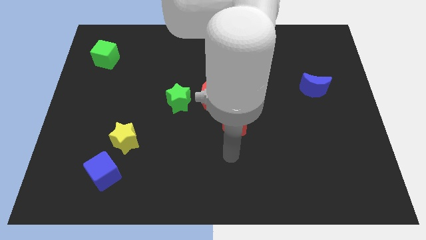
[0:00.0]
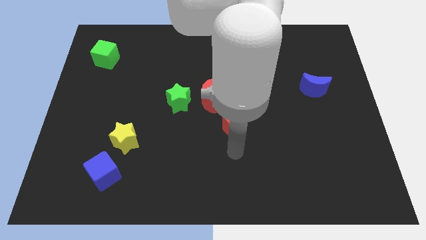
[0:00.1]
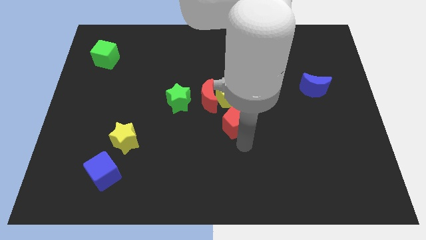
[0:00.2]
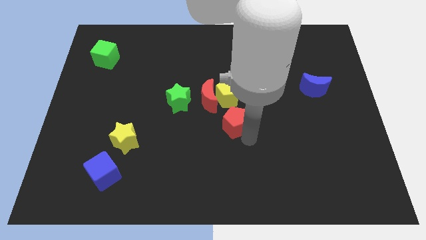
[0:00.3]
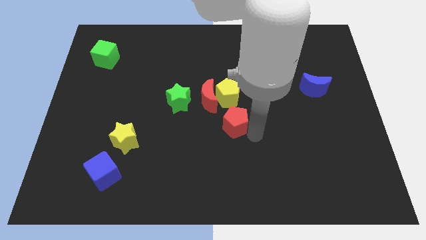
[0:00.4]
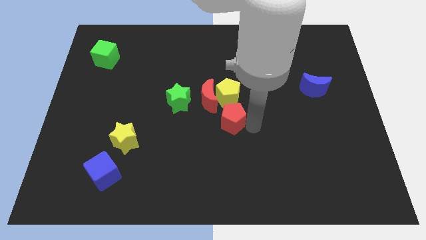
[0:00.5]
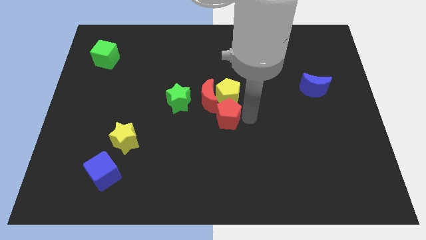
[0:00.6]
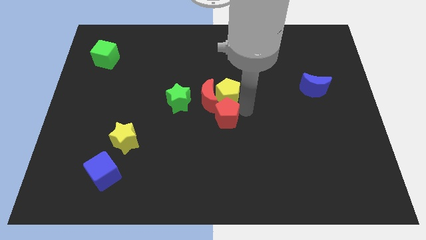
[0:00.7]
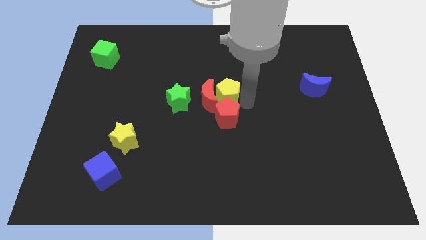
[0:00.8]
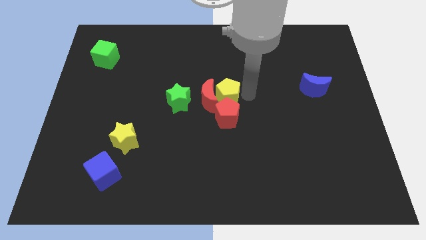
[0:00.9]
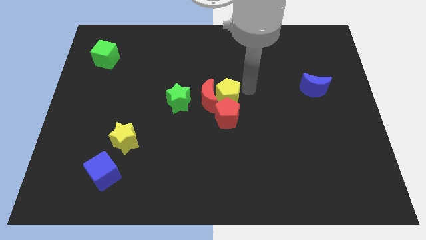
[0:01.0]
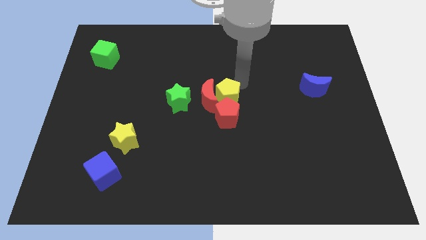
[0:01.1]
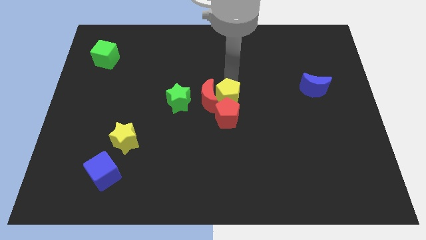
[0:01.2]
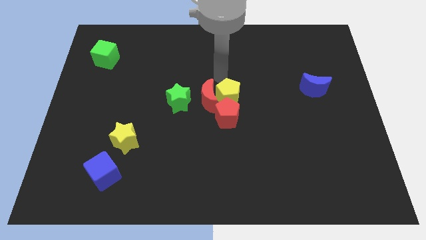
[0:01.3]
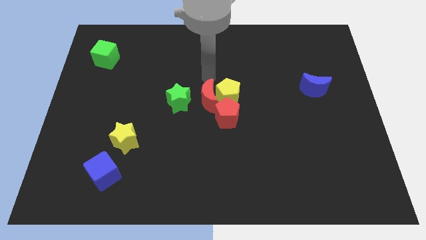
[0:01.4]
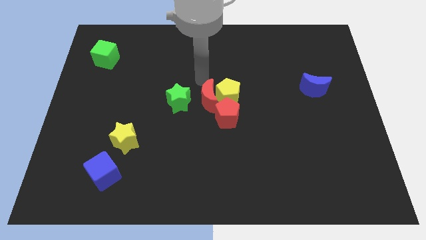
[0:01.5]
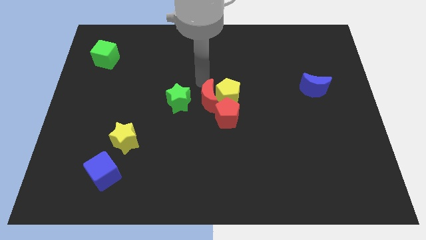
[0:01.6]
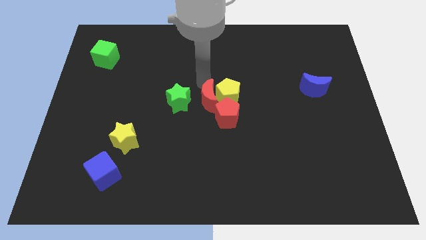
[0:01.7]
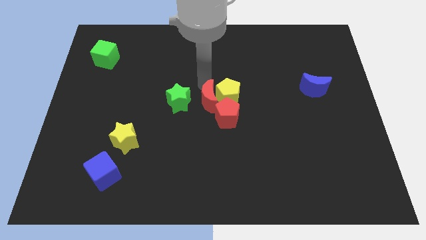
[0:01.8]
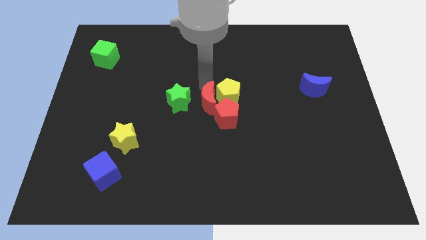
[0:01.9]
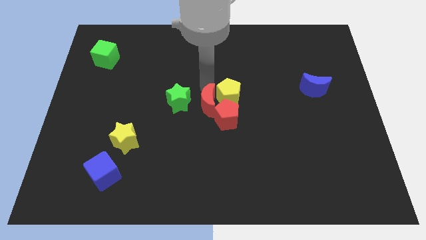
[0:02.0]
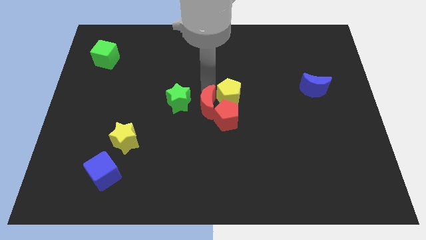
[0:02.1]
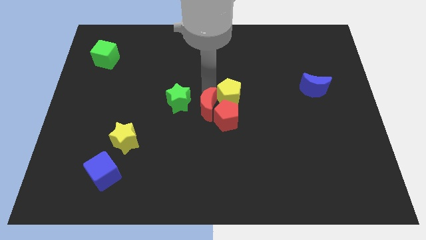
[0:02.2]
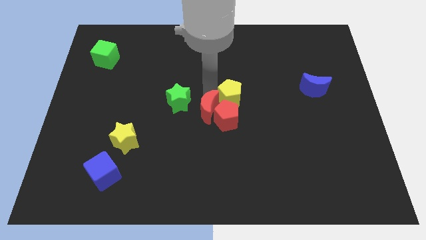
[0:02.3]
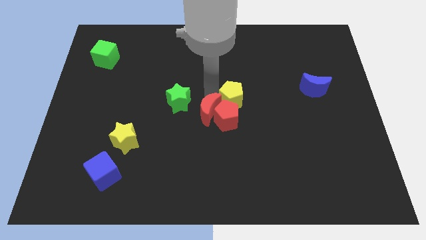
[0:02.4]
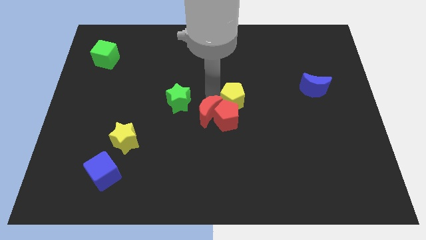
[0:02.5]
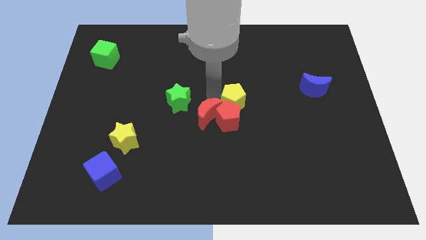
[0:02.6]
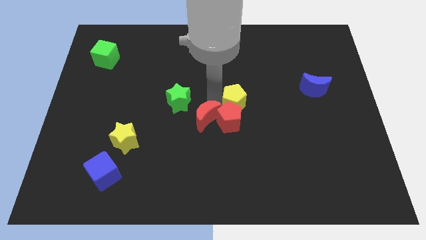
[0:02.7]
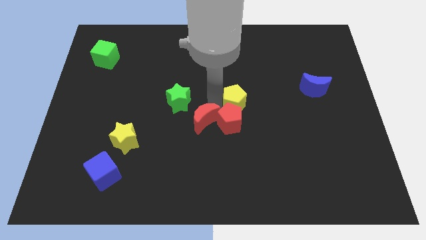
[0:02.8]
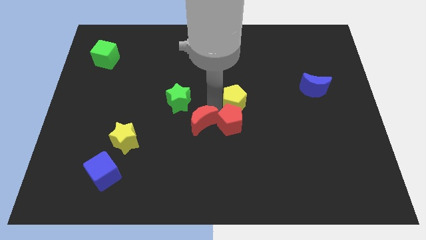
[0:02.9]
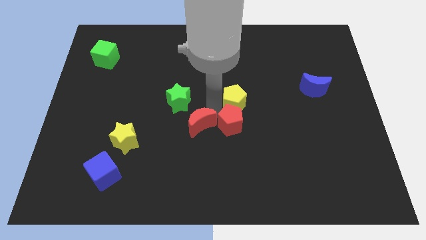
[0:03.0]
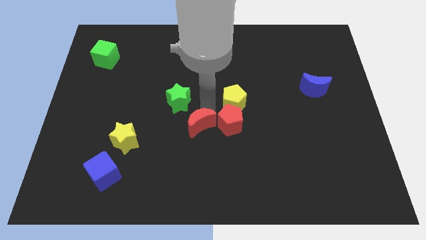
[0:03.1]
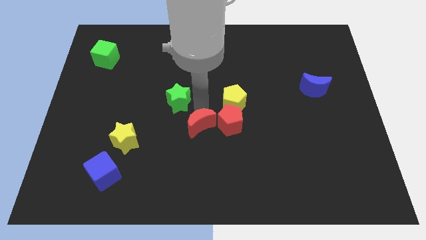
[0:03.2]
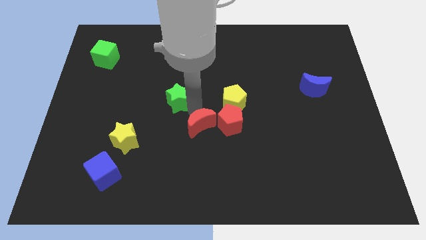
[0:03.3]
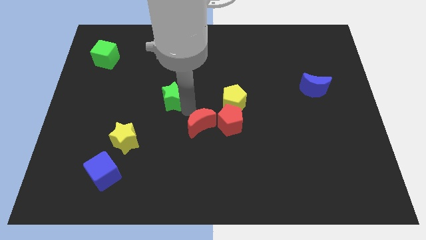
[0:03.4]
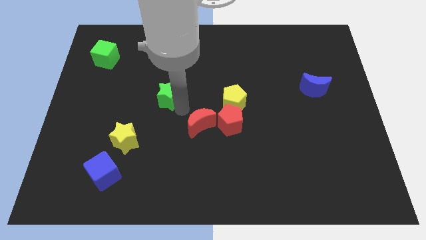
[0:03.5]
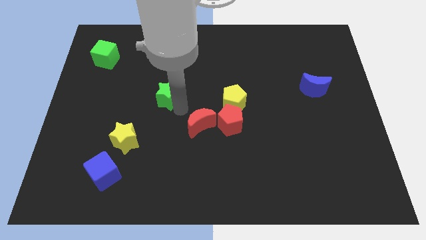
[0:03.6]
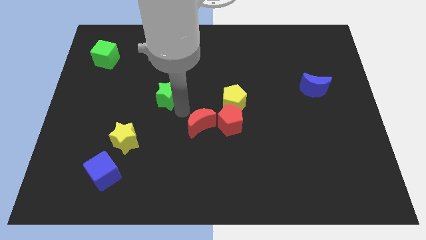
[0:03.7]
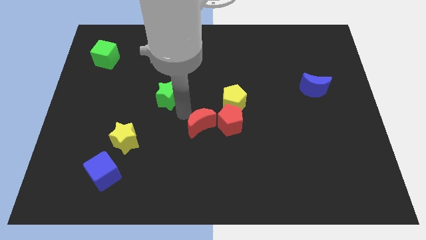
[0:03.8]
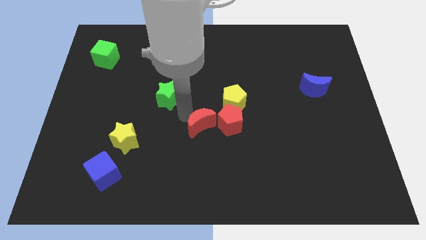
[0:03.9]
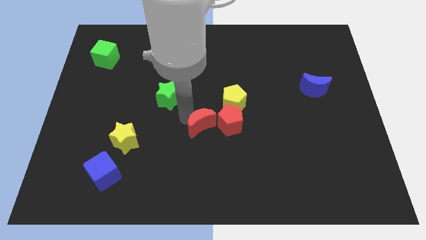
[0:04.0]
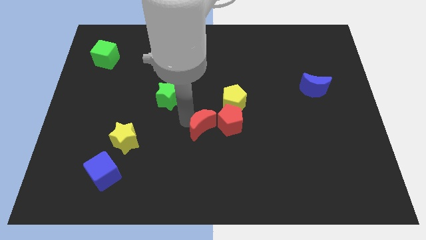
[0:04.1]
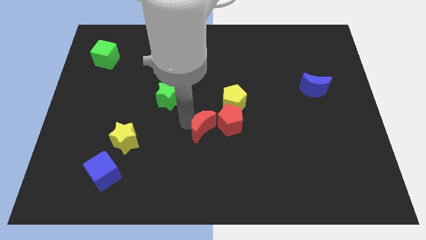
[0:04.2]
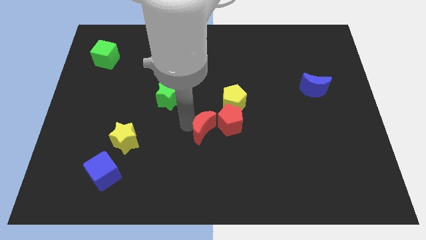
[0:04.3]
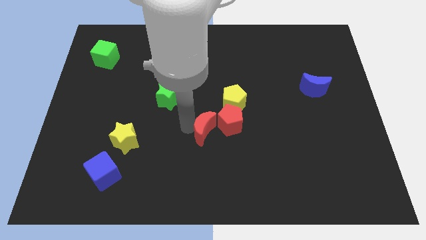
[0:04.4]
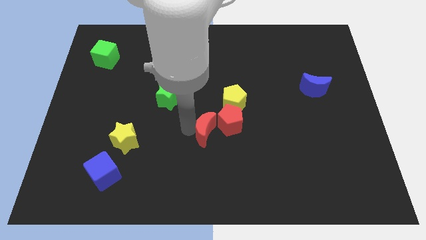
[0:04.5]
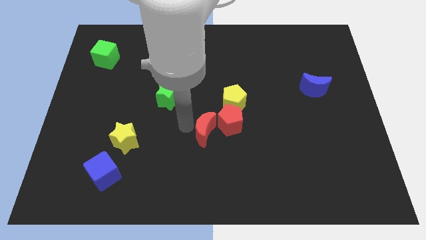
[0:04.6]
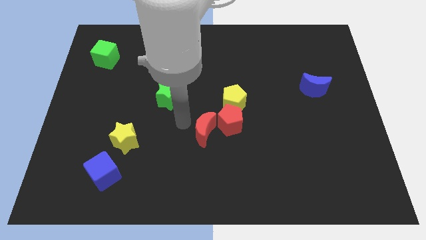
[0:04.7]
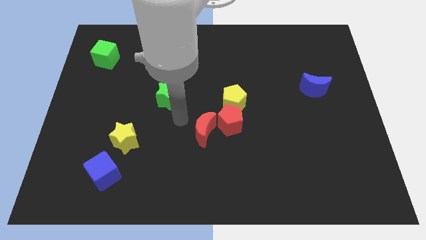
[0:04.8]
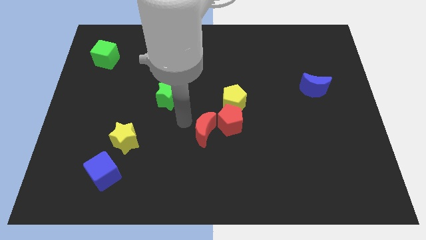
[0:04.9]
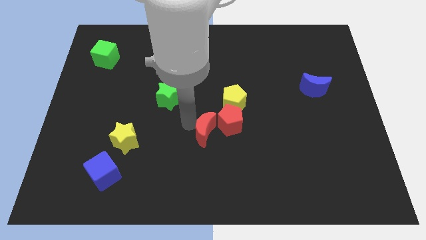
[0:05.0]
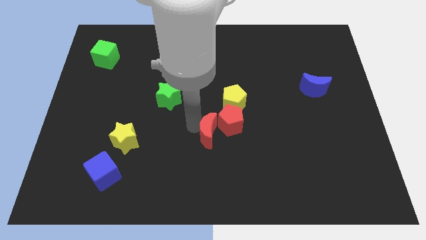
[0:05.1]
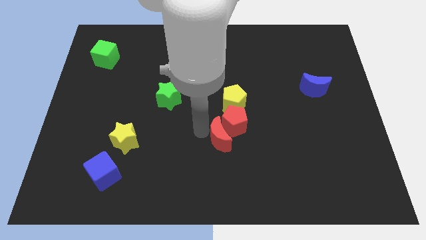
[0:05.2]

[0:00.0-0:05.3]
slightly slide the red moon down and right diagonally

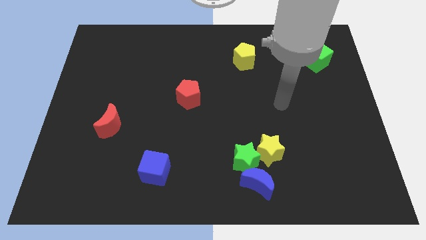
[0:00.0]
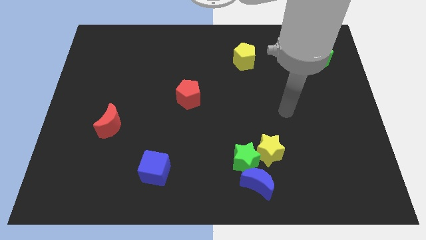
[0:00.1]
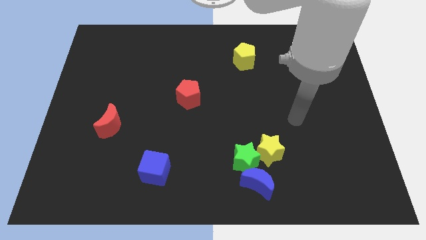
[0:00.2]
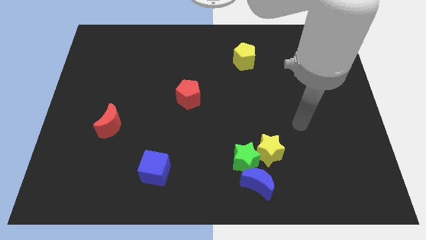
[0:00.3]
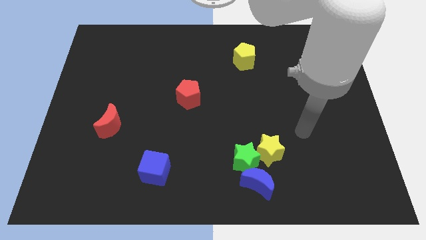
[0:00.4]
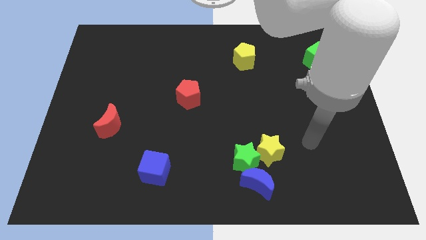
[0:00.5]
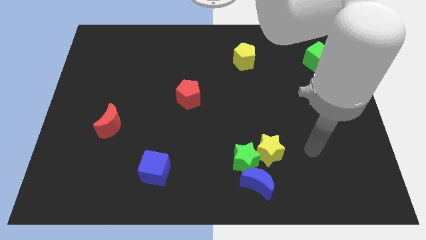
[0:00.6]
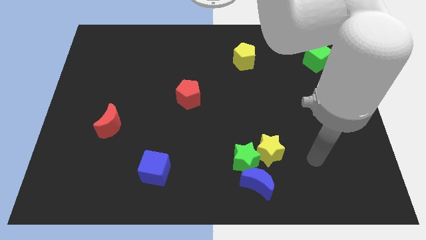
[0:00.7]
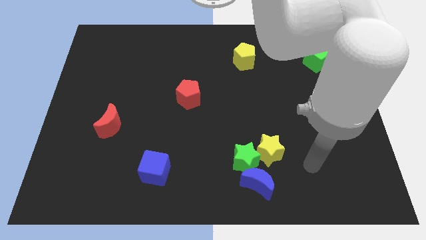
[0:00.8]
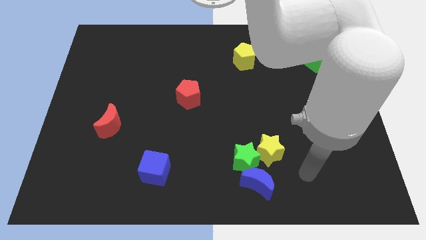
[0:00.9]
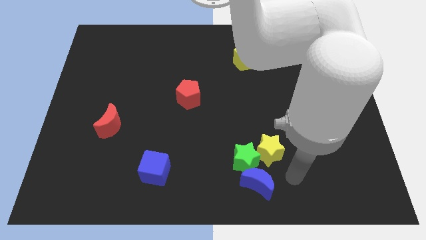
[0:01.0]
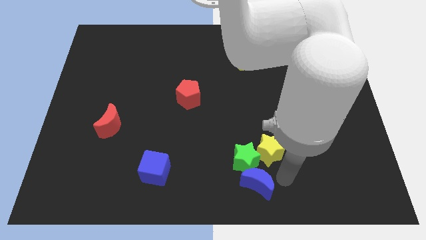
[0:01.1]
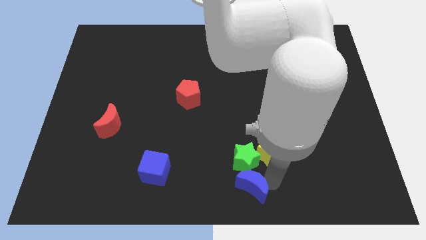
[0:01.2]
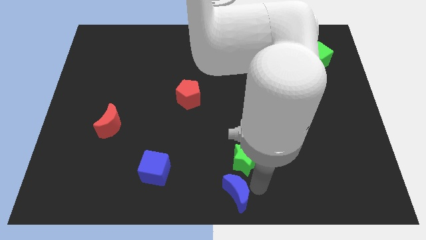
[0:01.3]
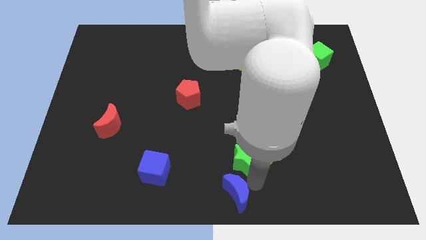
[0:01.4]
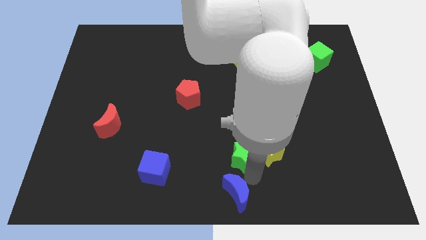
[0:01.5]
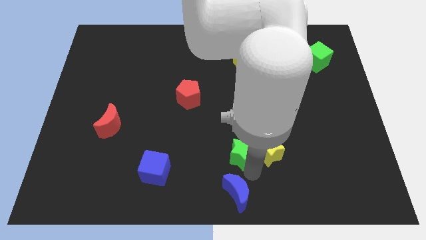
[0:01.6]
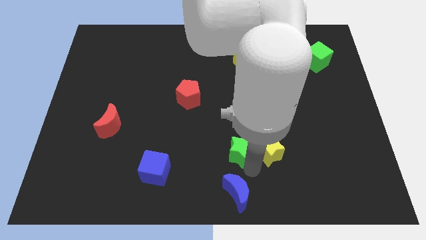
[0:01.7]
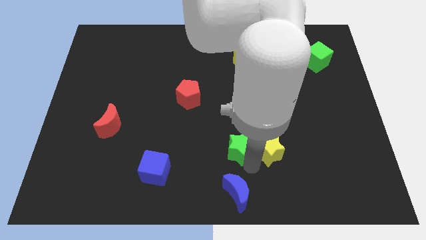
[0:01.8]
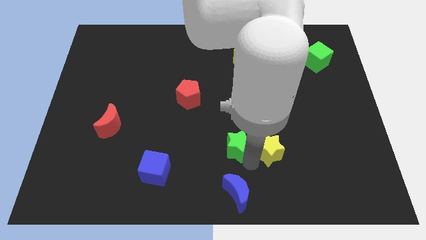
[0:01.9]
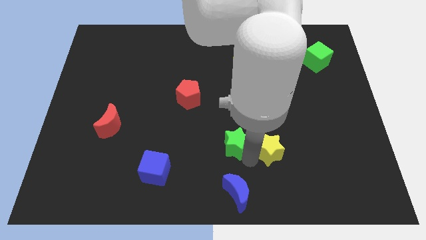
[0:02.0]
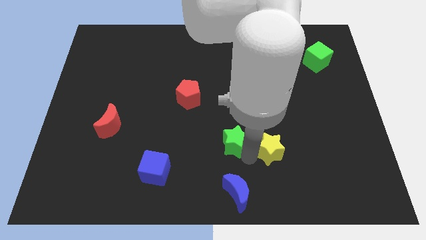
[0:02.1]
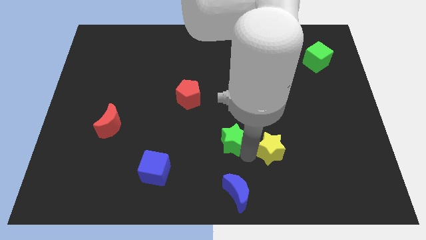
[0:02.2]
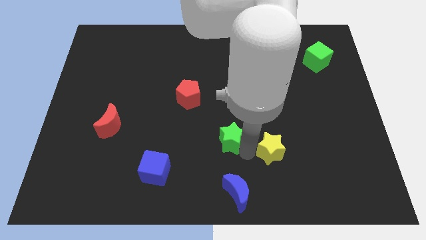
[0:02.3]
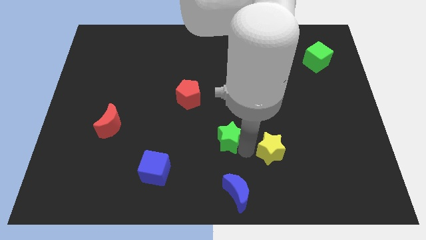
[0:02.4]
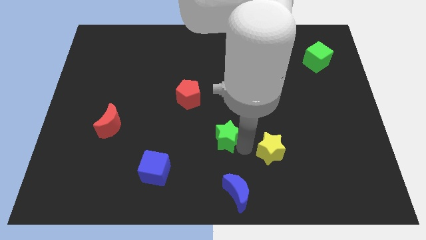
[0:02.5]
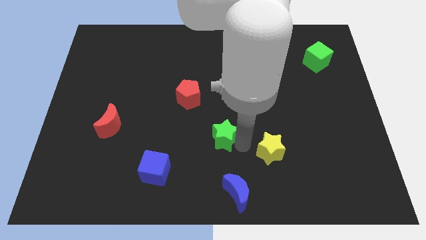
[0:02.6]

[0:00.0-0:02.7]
slightly move the green star diagonally up and to the left
